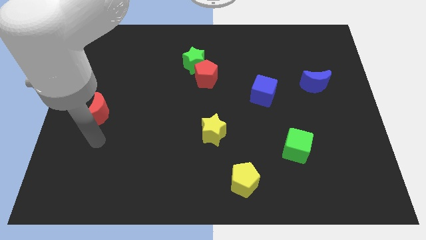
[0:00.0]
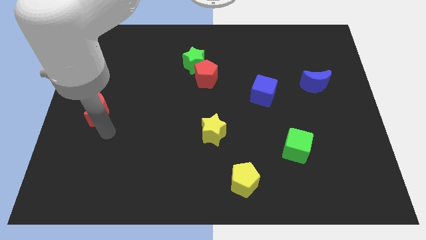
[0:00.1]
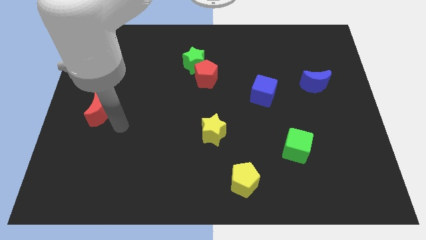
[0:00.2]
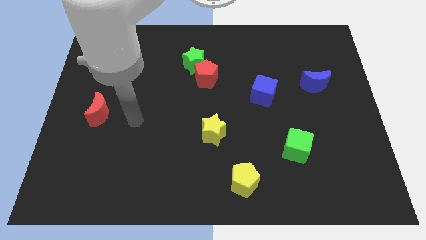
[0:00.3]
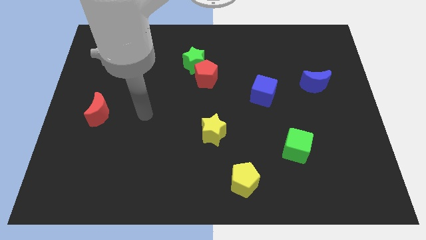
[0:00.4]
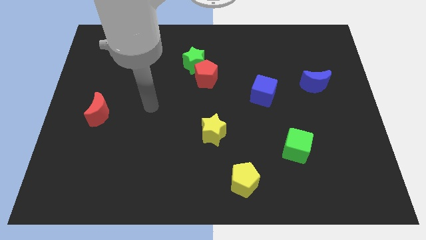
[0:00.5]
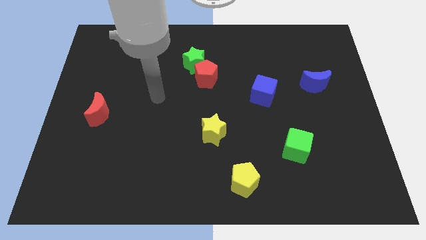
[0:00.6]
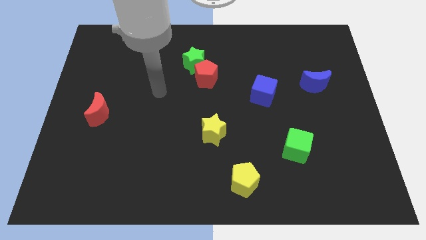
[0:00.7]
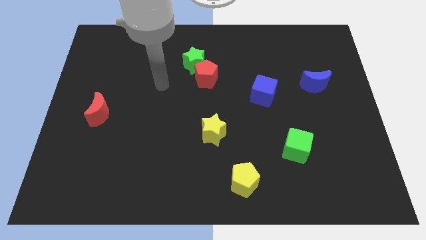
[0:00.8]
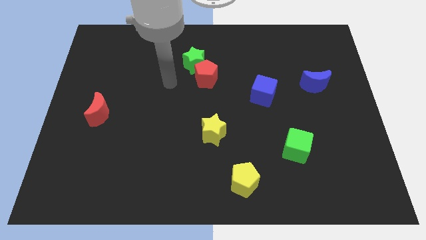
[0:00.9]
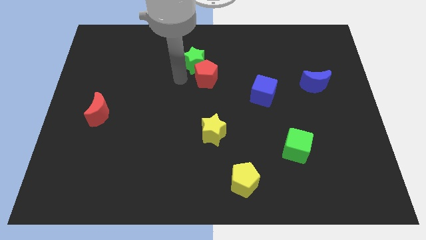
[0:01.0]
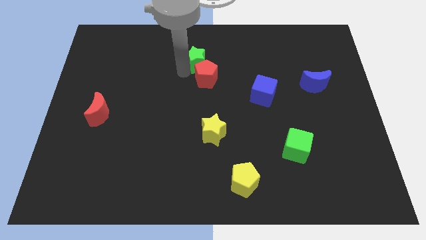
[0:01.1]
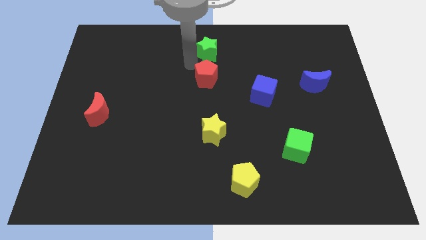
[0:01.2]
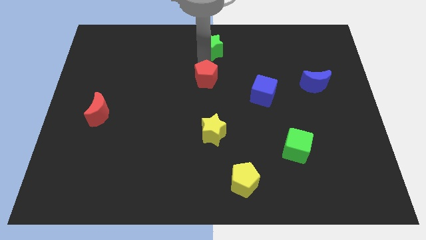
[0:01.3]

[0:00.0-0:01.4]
pull the red pentagon apart from the green star

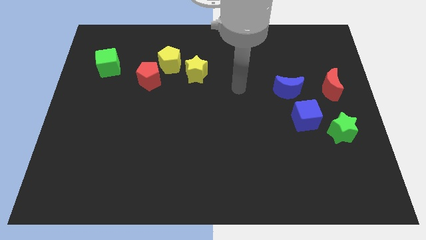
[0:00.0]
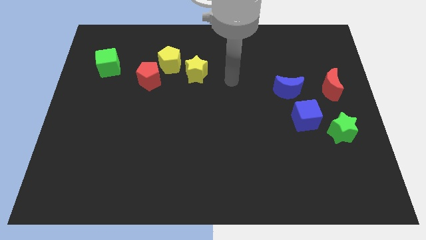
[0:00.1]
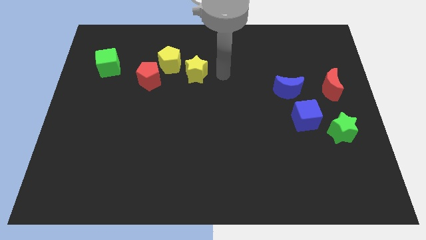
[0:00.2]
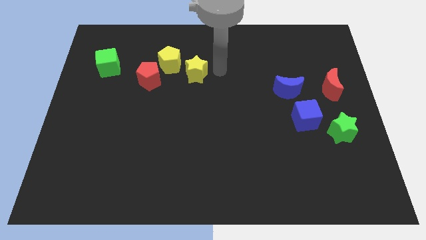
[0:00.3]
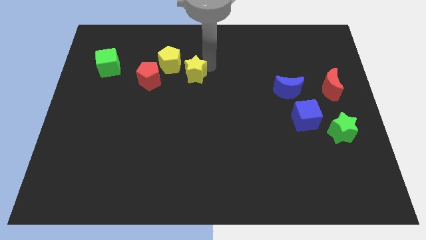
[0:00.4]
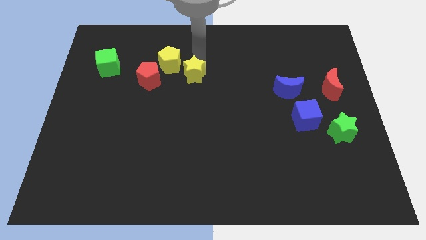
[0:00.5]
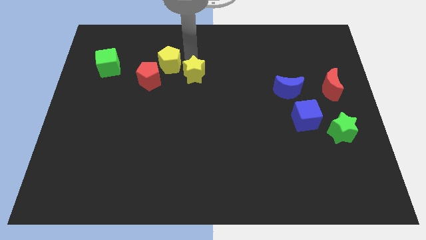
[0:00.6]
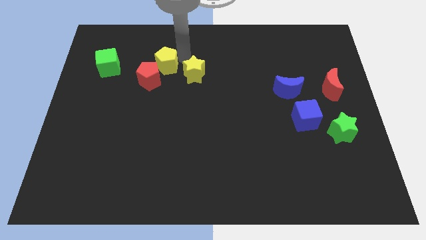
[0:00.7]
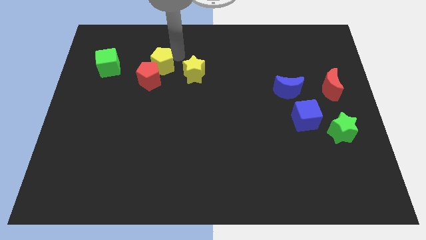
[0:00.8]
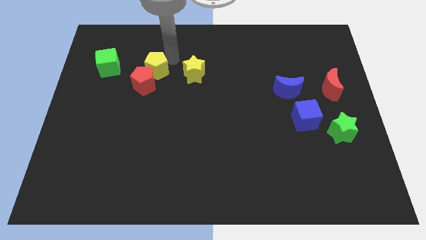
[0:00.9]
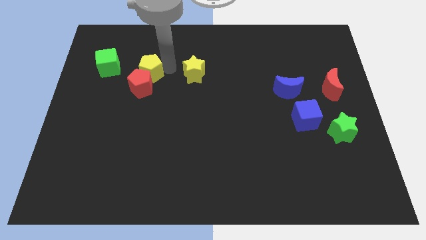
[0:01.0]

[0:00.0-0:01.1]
move the yellow star away from the yellow pentagon

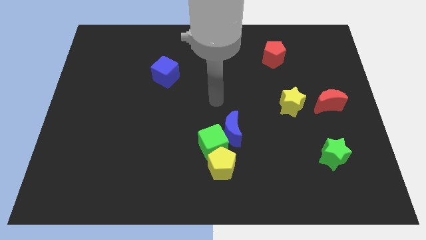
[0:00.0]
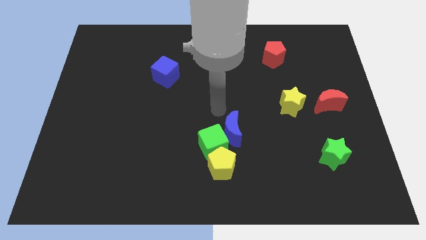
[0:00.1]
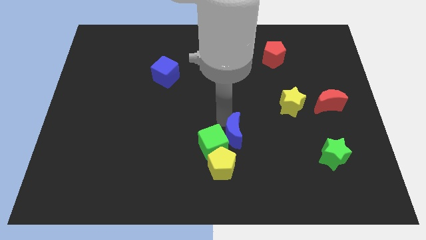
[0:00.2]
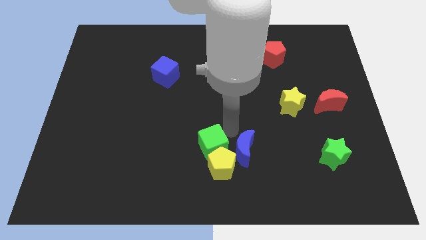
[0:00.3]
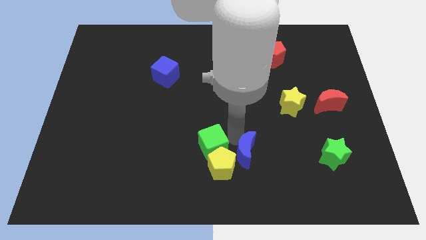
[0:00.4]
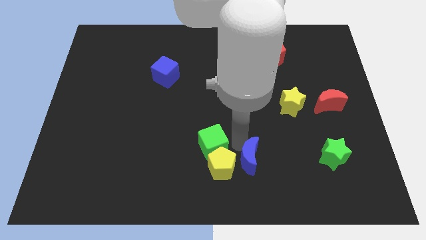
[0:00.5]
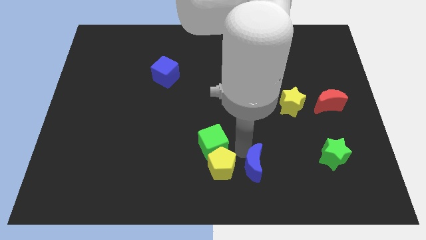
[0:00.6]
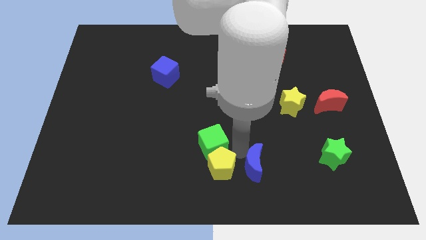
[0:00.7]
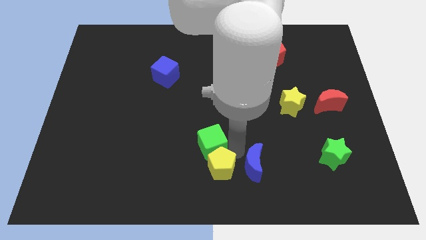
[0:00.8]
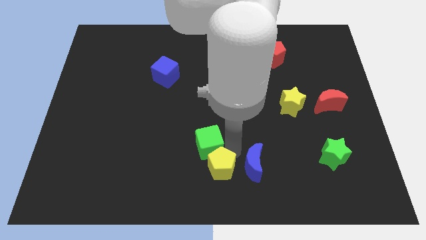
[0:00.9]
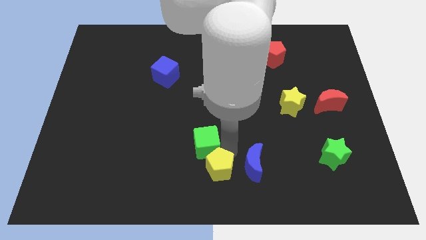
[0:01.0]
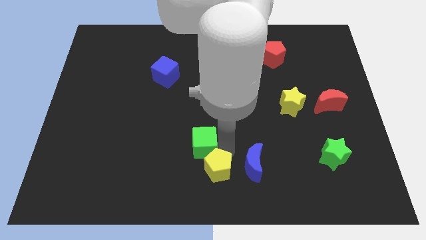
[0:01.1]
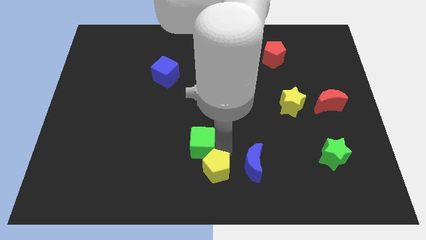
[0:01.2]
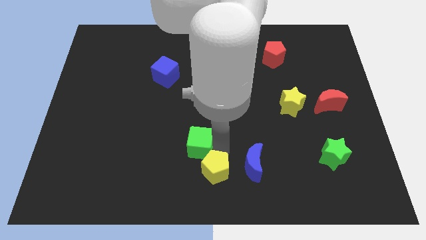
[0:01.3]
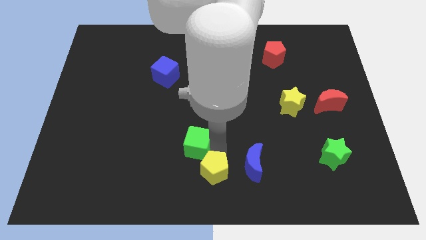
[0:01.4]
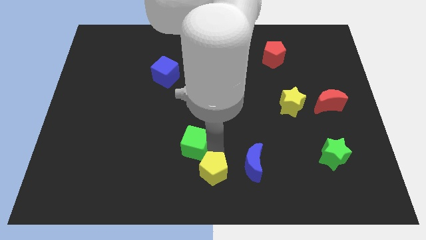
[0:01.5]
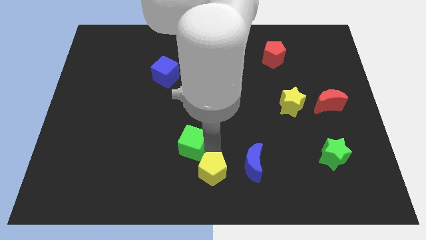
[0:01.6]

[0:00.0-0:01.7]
move the green cube away from the blue moon and yellow pentagon

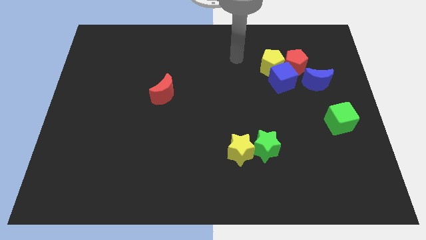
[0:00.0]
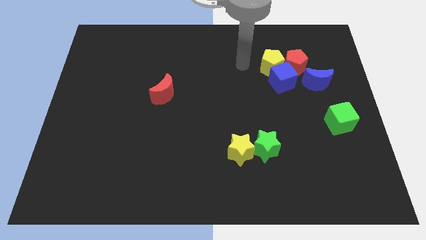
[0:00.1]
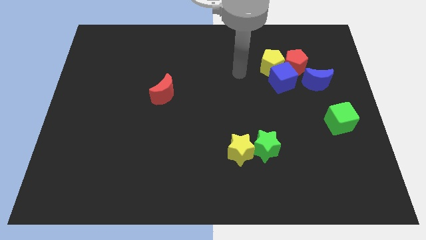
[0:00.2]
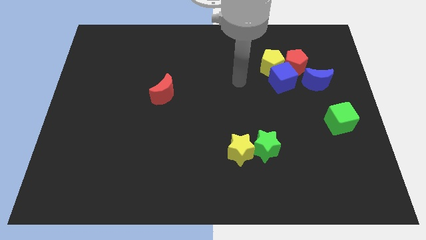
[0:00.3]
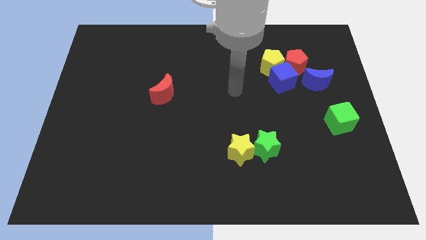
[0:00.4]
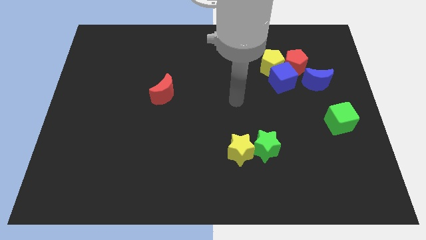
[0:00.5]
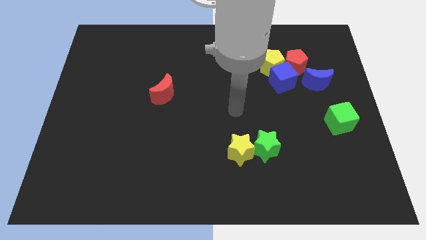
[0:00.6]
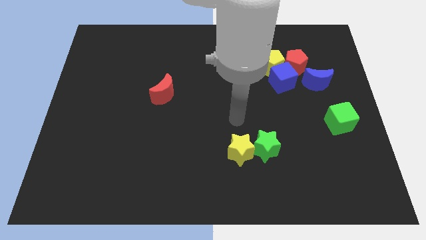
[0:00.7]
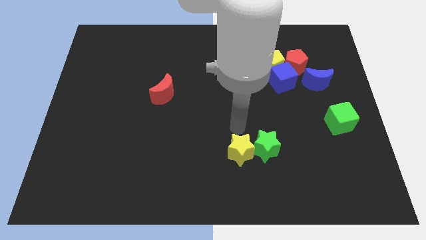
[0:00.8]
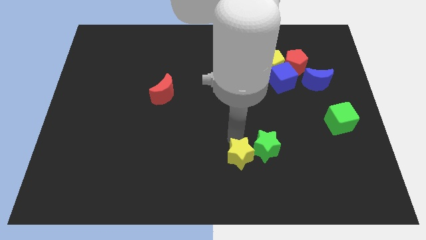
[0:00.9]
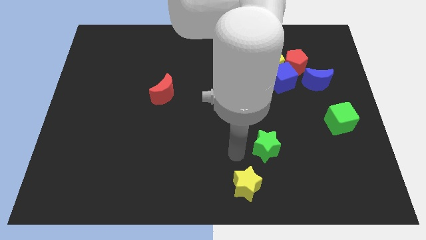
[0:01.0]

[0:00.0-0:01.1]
move the green star away from the yellow star

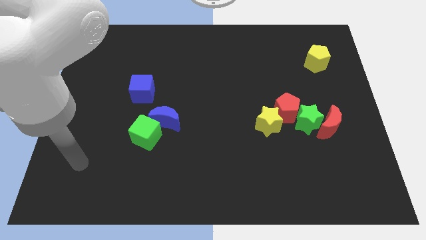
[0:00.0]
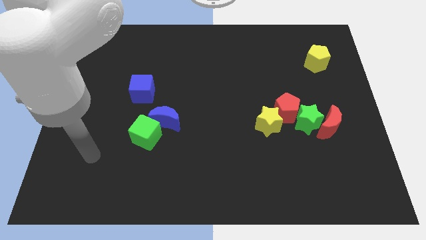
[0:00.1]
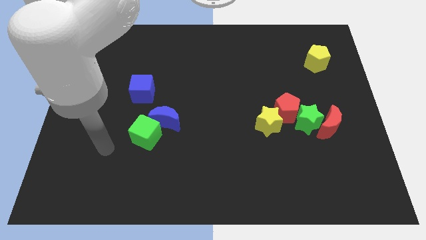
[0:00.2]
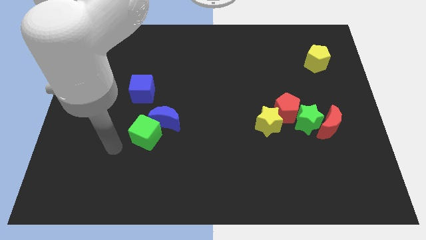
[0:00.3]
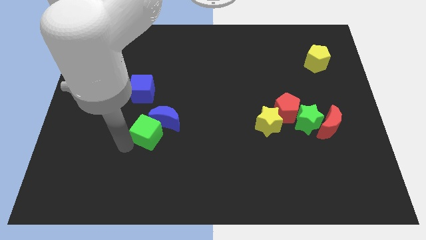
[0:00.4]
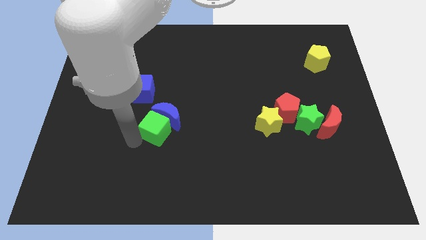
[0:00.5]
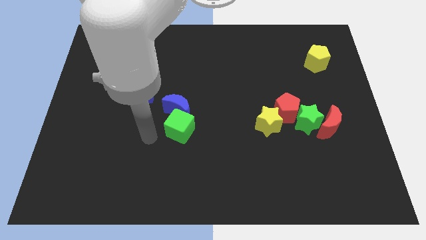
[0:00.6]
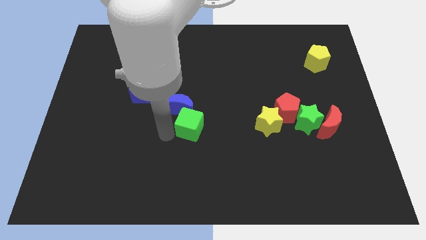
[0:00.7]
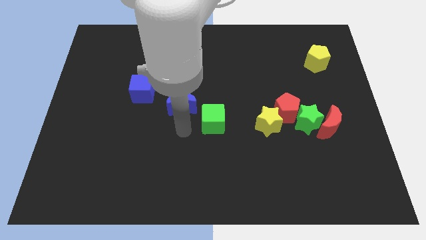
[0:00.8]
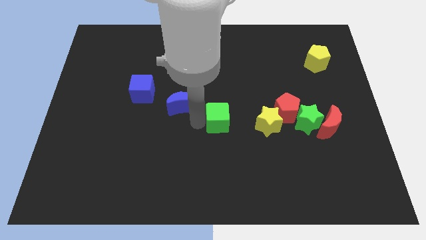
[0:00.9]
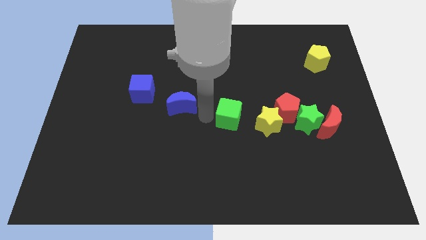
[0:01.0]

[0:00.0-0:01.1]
move the blue moon away from the green cube

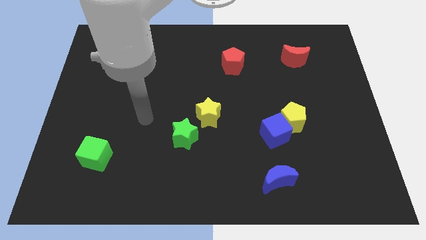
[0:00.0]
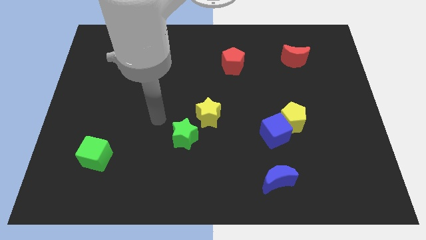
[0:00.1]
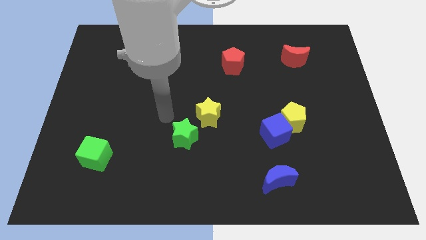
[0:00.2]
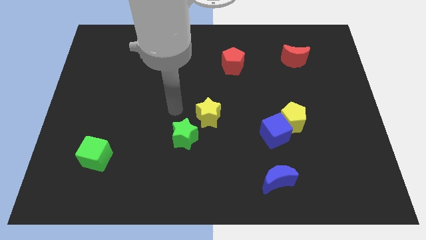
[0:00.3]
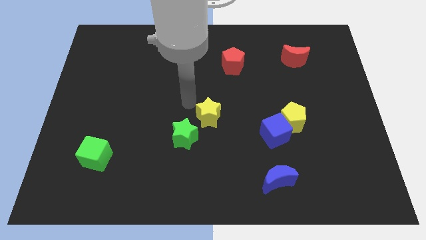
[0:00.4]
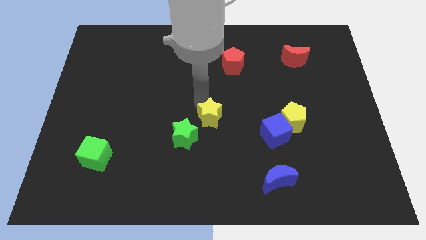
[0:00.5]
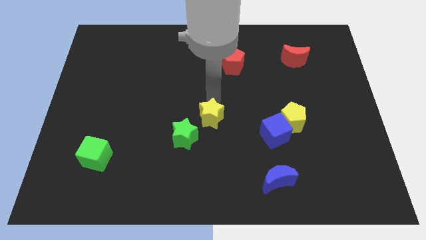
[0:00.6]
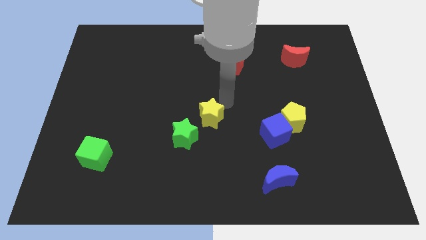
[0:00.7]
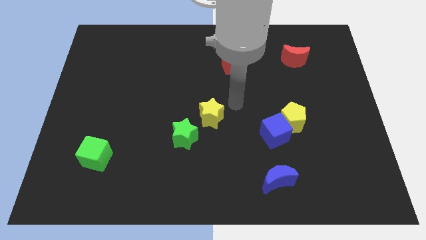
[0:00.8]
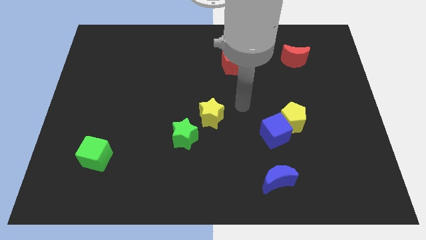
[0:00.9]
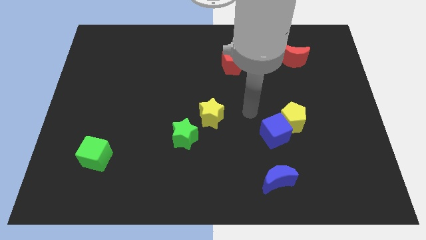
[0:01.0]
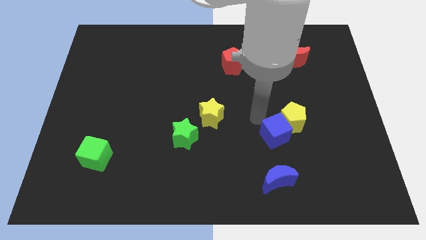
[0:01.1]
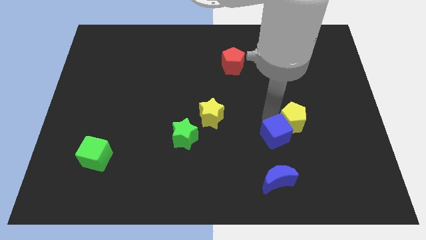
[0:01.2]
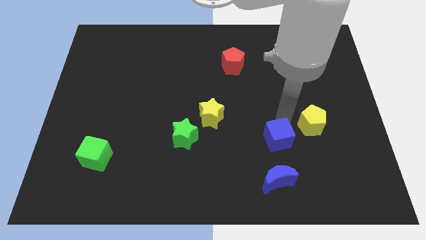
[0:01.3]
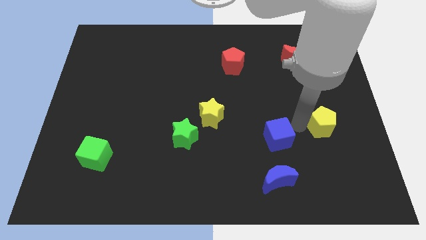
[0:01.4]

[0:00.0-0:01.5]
pull the blue cube apart from the yellow pentagon

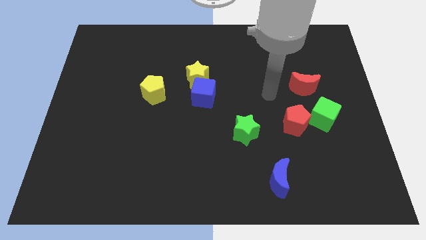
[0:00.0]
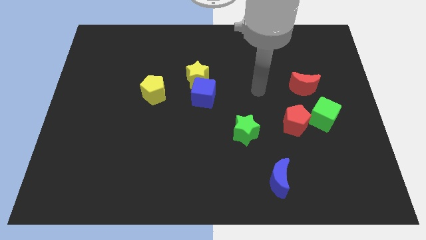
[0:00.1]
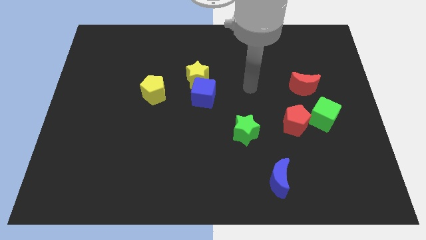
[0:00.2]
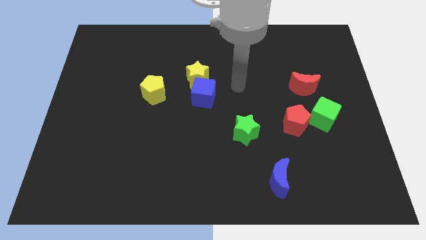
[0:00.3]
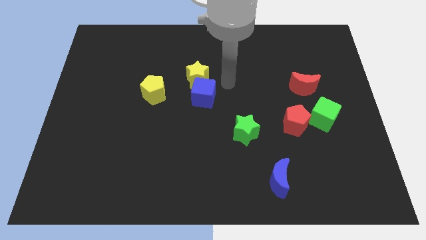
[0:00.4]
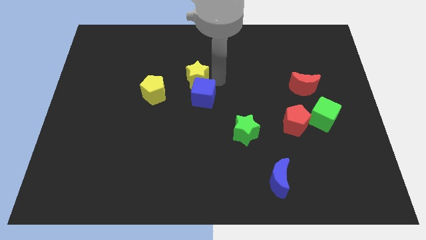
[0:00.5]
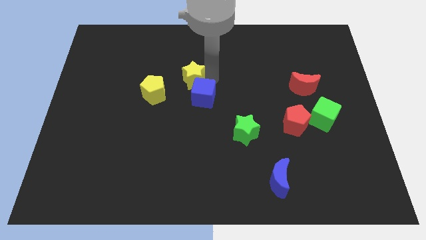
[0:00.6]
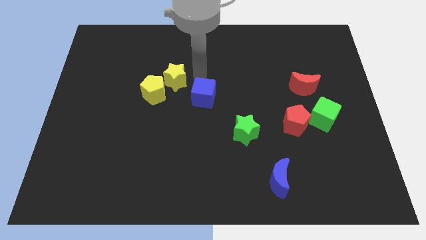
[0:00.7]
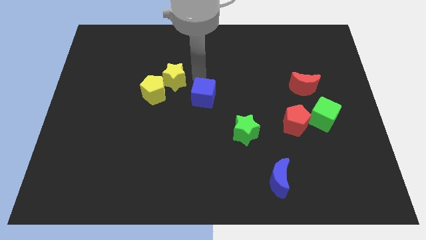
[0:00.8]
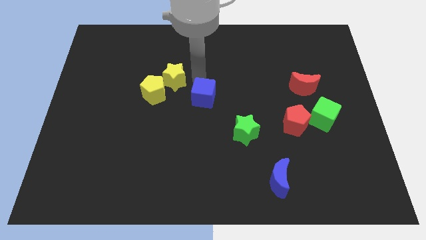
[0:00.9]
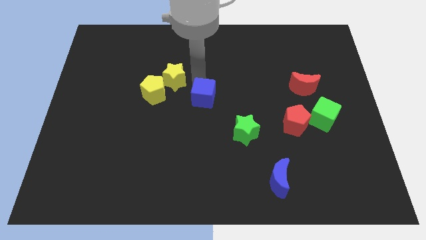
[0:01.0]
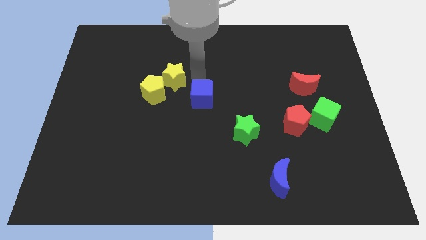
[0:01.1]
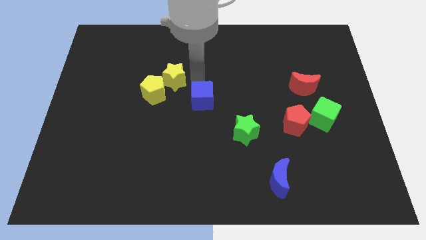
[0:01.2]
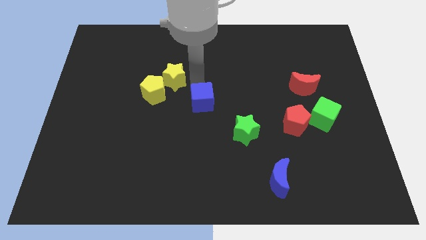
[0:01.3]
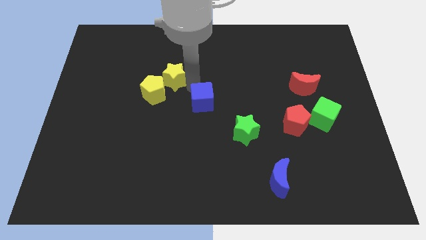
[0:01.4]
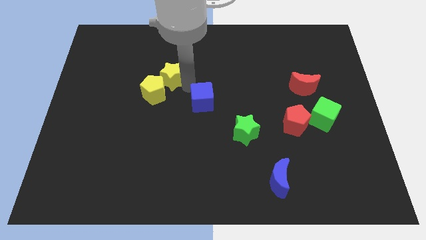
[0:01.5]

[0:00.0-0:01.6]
pull the blue cube apart from the yellow star
